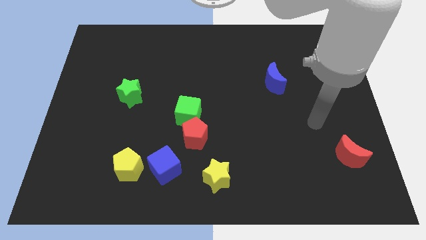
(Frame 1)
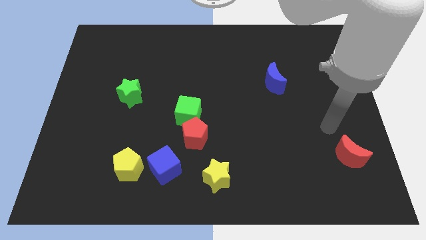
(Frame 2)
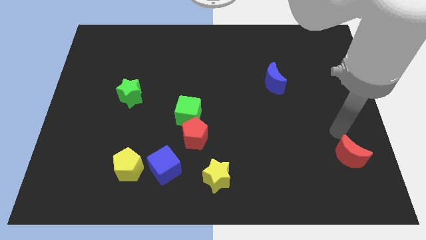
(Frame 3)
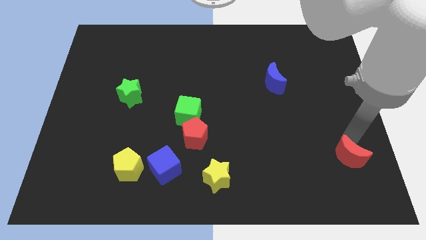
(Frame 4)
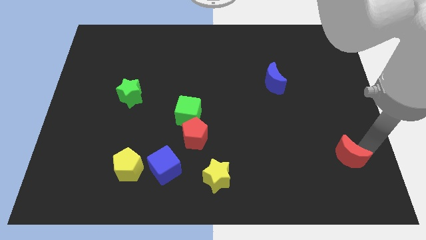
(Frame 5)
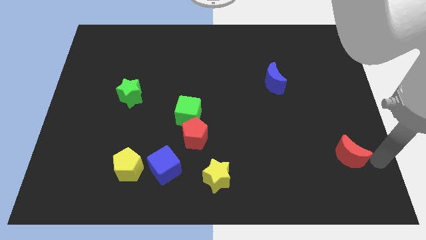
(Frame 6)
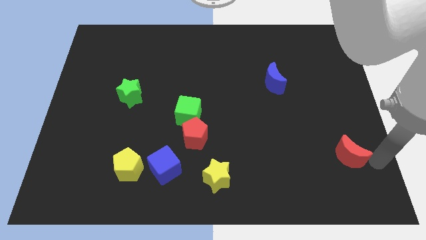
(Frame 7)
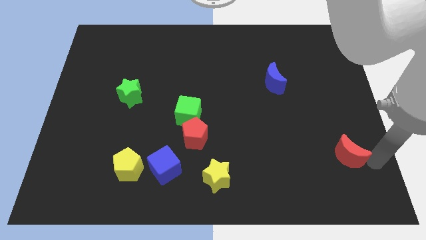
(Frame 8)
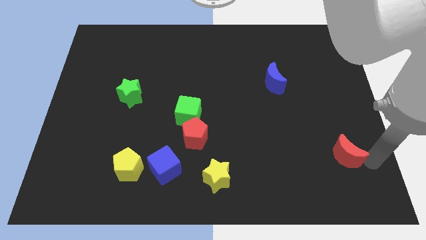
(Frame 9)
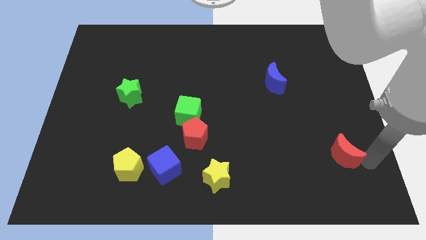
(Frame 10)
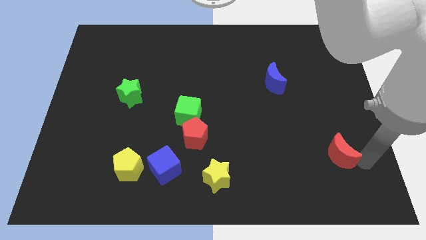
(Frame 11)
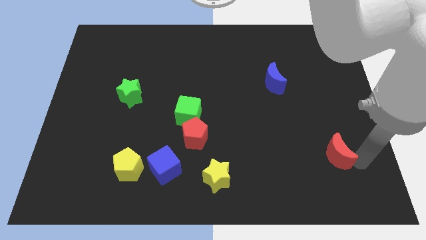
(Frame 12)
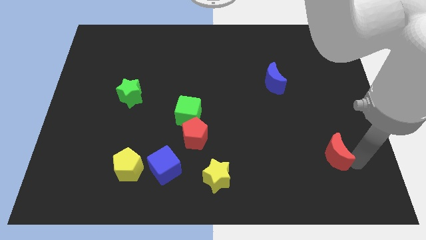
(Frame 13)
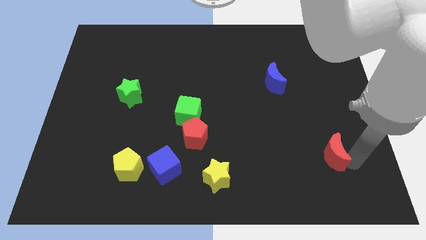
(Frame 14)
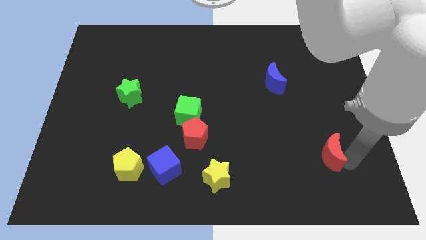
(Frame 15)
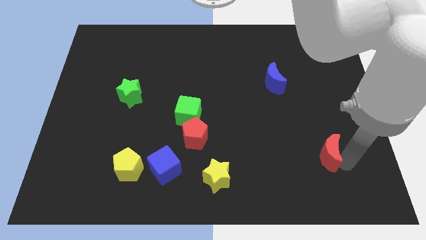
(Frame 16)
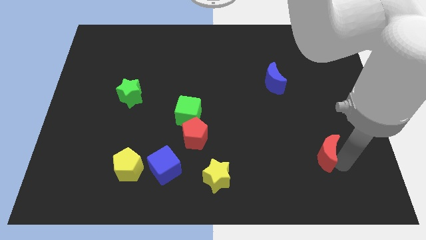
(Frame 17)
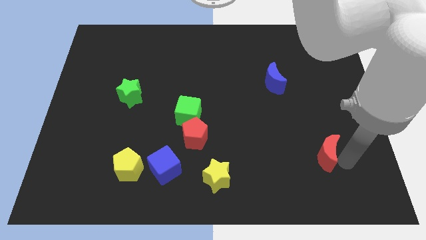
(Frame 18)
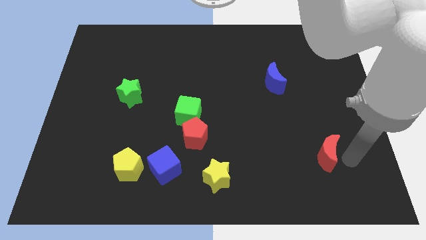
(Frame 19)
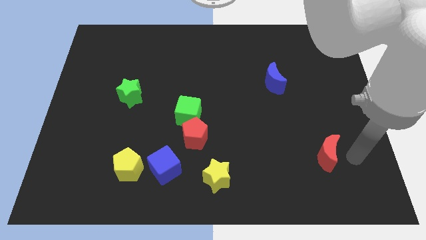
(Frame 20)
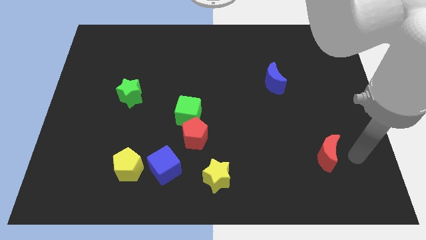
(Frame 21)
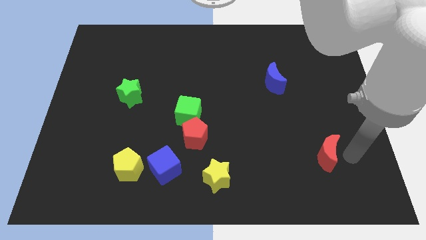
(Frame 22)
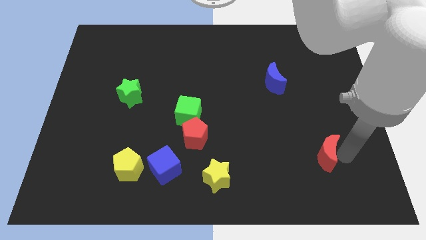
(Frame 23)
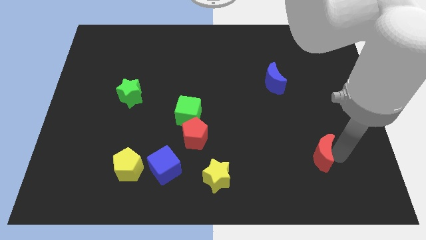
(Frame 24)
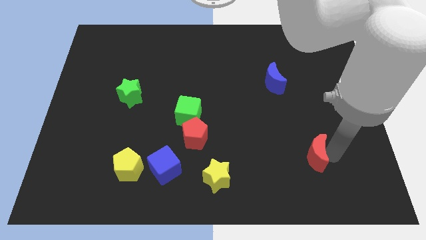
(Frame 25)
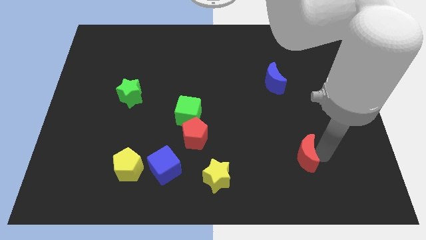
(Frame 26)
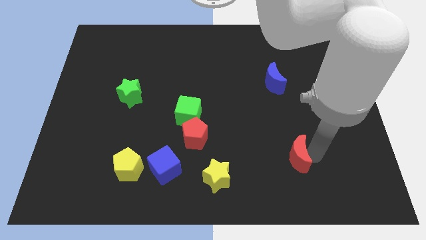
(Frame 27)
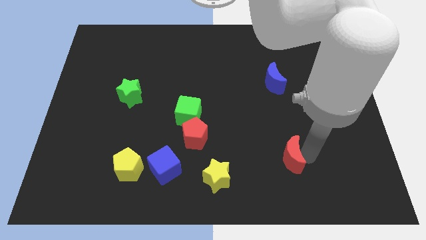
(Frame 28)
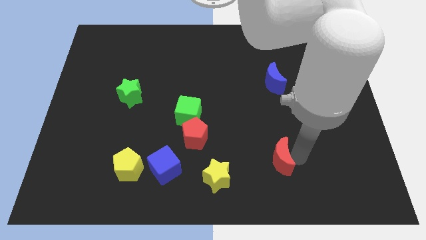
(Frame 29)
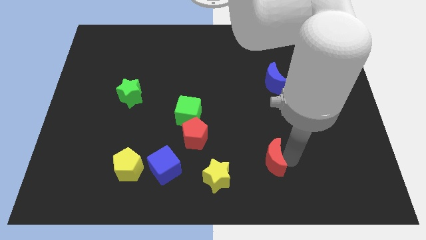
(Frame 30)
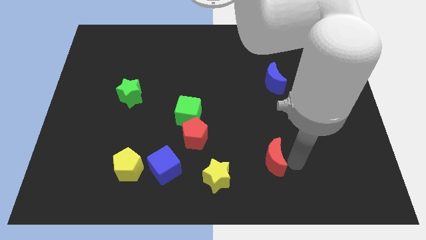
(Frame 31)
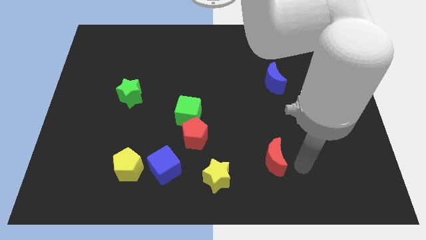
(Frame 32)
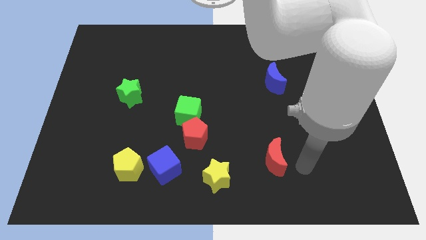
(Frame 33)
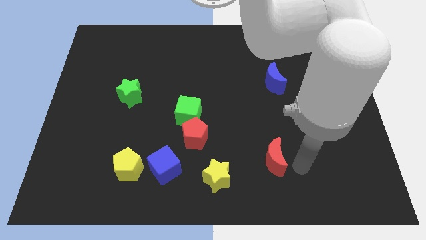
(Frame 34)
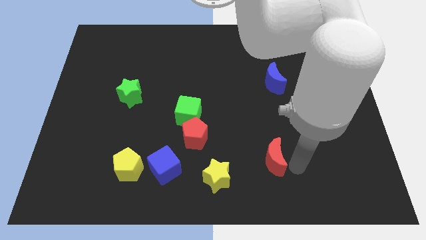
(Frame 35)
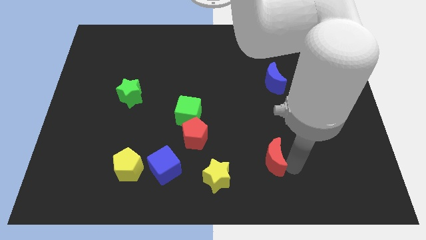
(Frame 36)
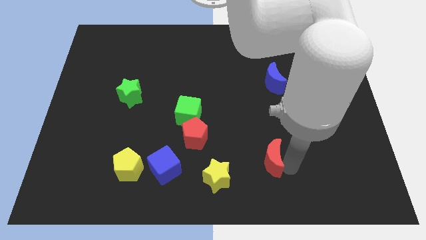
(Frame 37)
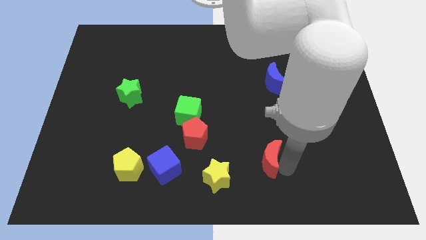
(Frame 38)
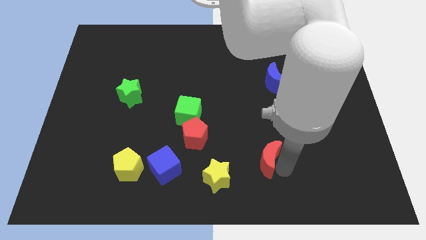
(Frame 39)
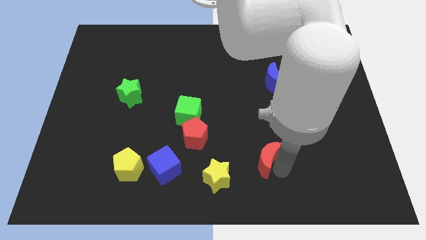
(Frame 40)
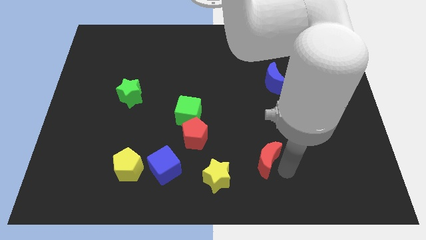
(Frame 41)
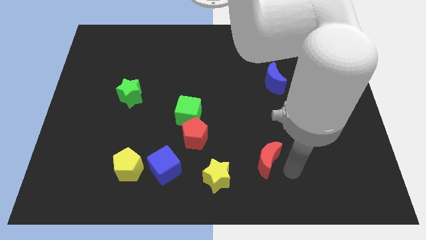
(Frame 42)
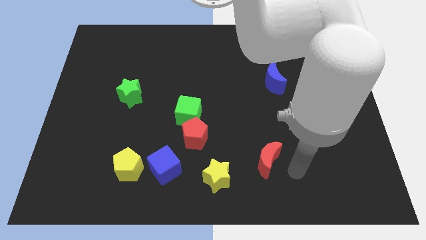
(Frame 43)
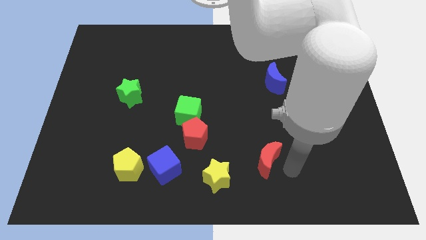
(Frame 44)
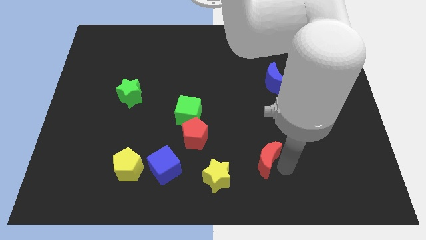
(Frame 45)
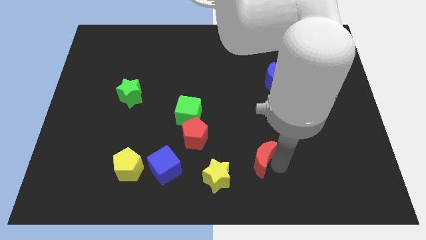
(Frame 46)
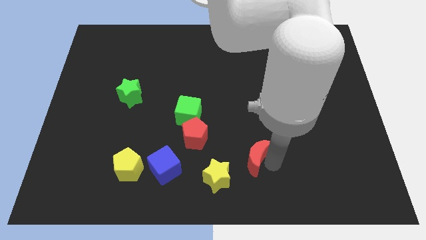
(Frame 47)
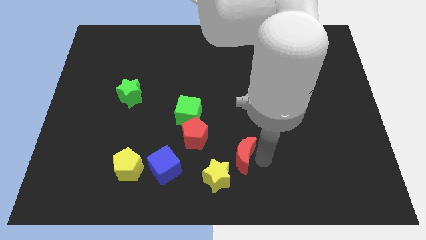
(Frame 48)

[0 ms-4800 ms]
push the red moon to the bottom right of the red pentagon

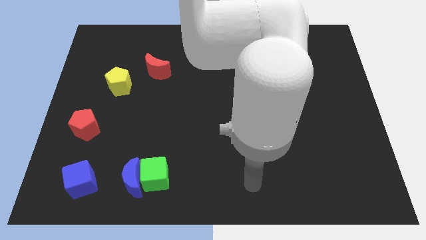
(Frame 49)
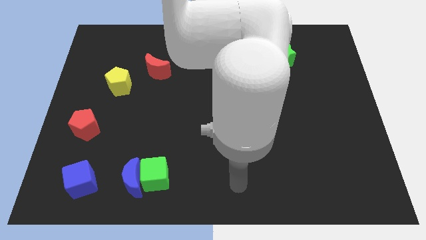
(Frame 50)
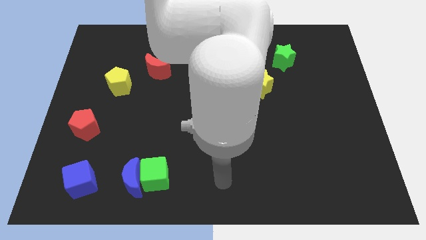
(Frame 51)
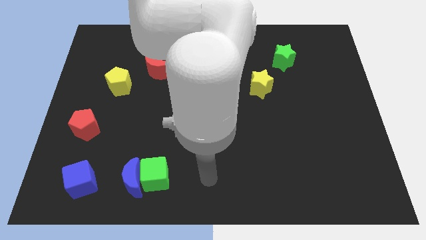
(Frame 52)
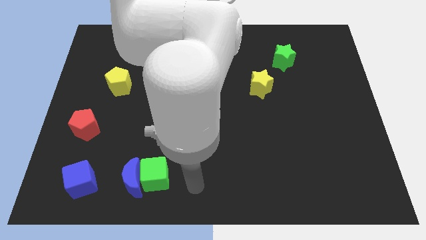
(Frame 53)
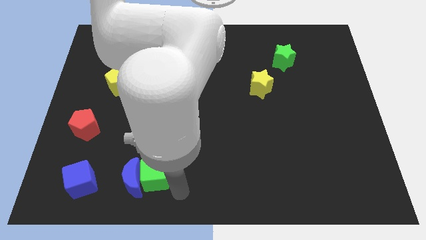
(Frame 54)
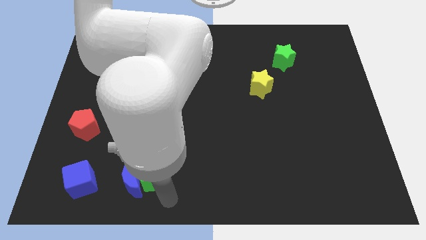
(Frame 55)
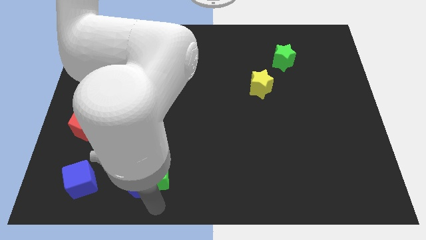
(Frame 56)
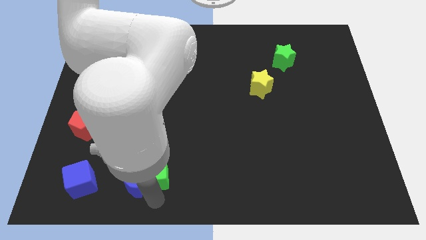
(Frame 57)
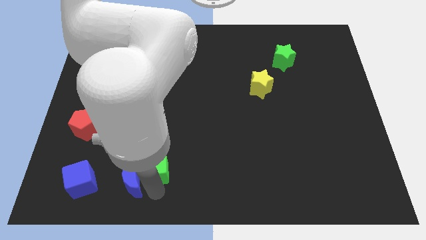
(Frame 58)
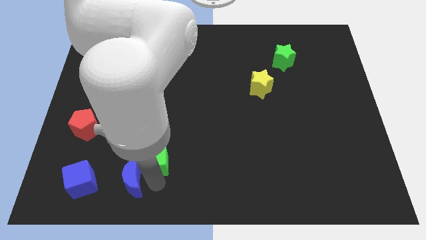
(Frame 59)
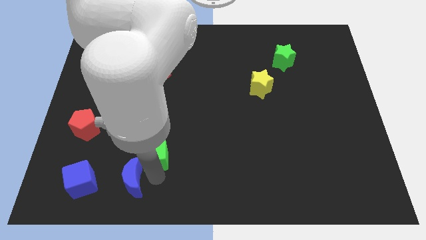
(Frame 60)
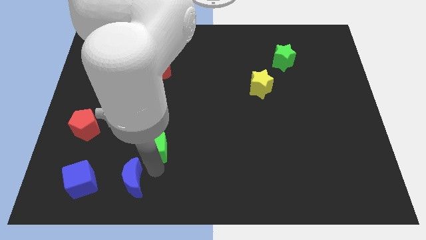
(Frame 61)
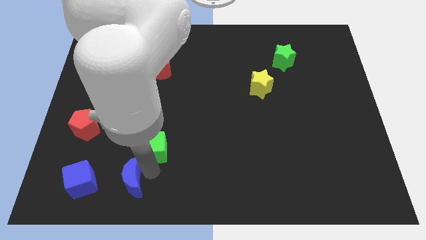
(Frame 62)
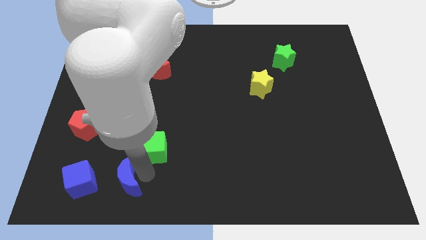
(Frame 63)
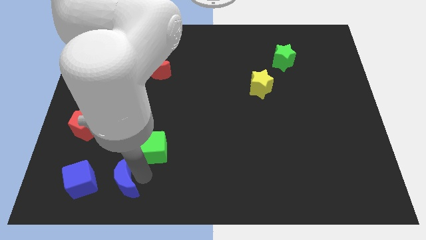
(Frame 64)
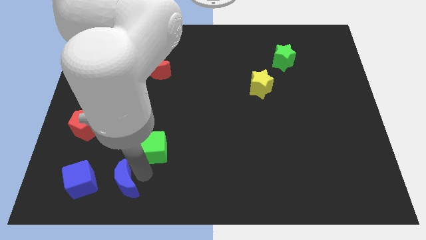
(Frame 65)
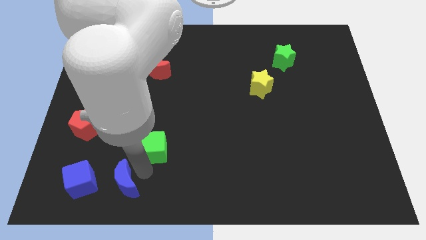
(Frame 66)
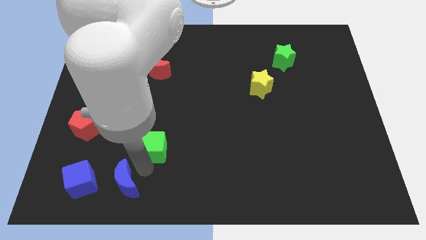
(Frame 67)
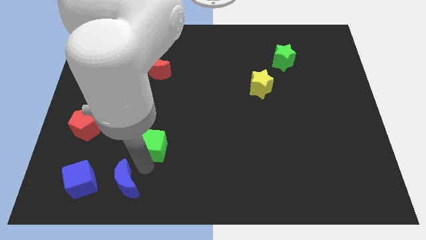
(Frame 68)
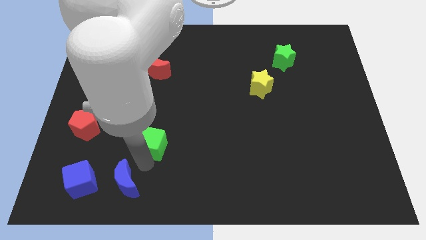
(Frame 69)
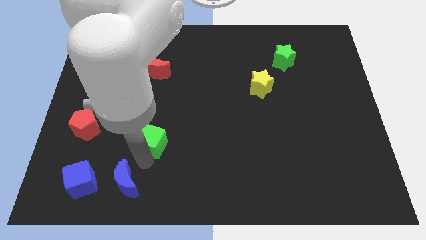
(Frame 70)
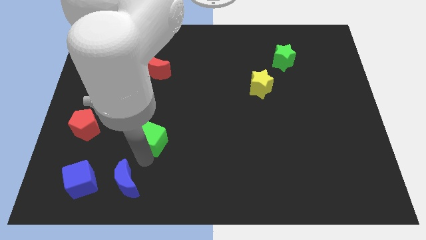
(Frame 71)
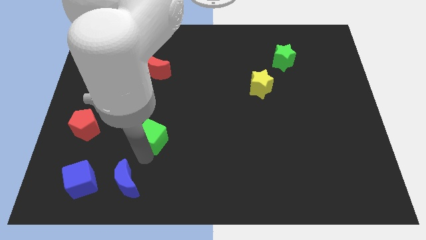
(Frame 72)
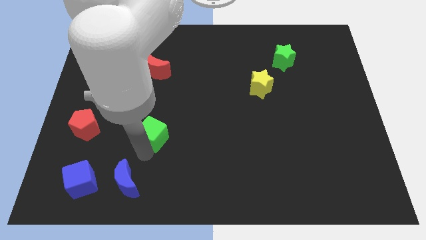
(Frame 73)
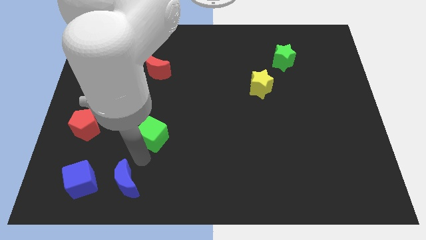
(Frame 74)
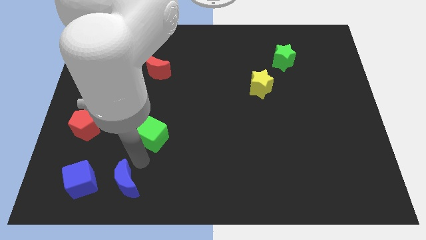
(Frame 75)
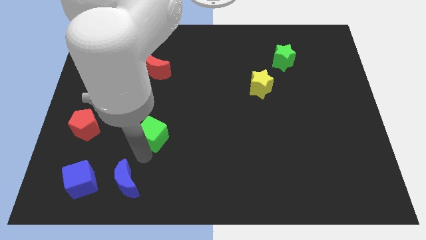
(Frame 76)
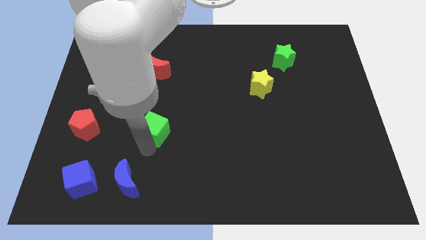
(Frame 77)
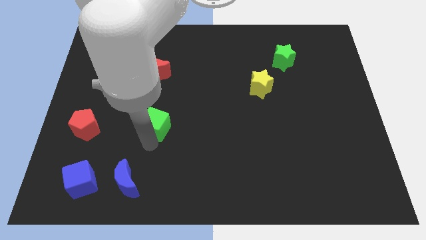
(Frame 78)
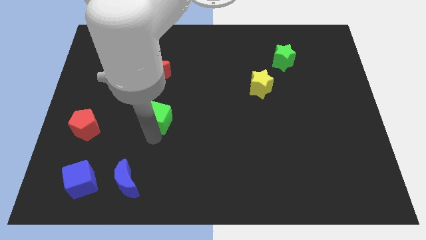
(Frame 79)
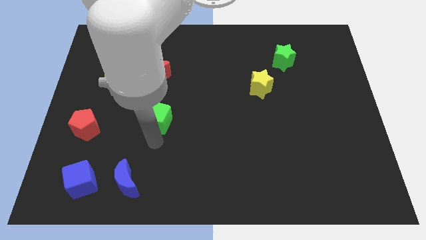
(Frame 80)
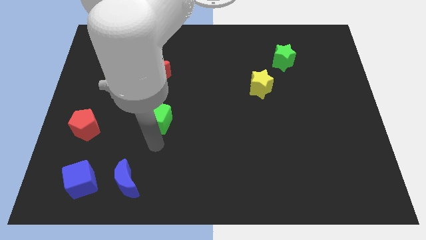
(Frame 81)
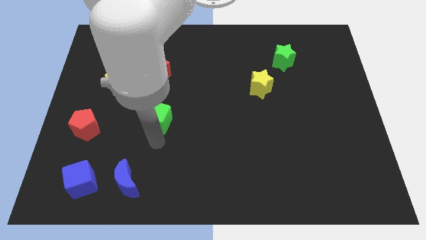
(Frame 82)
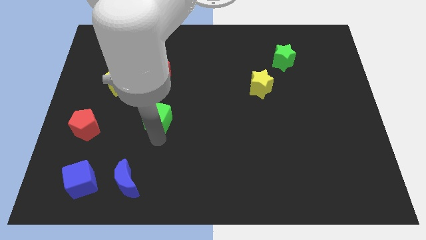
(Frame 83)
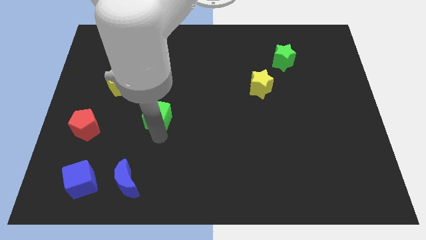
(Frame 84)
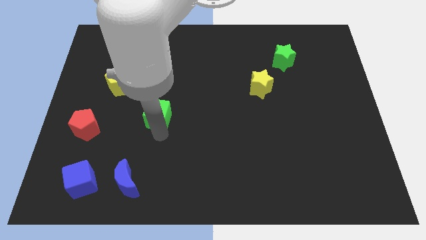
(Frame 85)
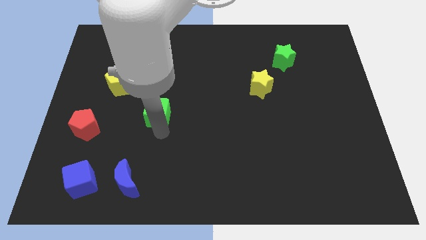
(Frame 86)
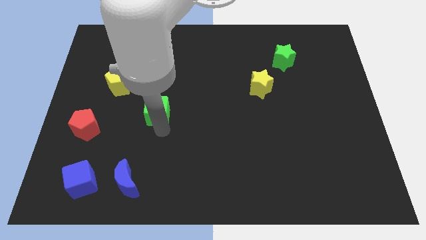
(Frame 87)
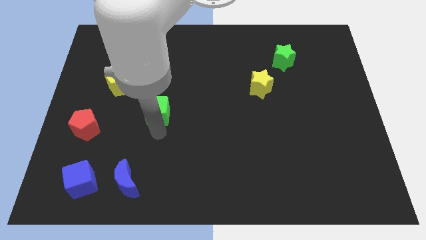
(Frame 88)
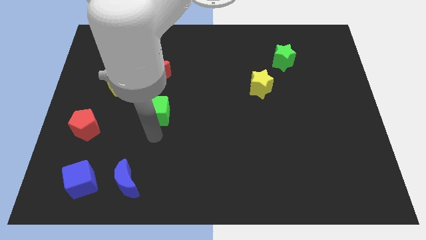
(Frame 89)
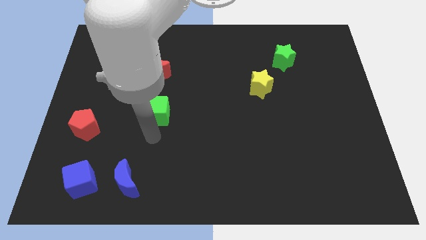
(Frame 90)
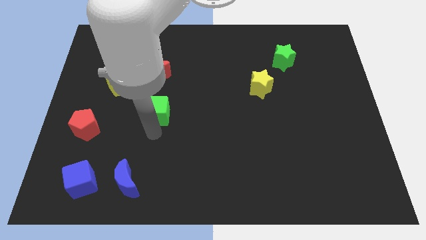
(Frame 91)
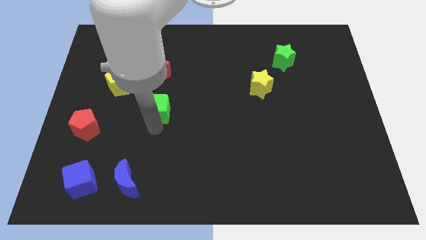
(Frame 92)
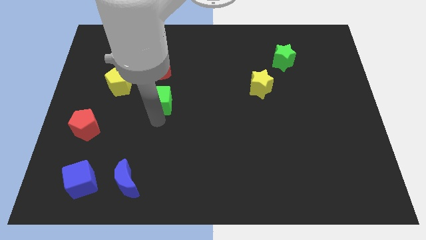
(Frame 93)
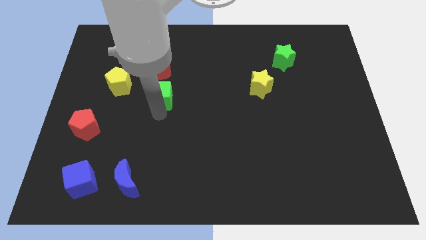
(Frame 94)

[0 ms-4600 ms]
move the green cube just right of the yellow pentagon
